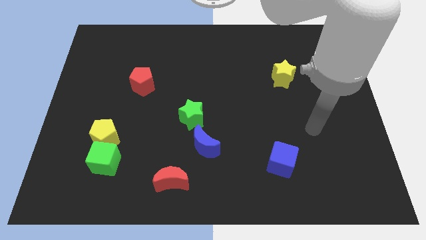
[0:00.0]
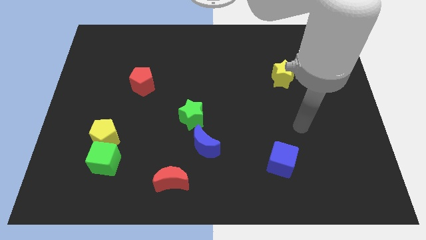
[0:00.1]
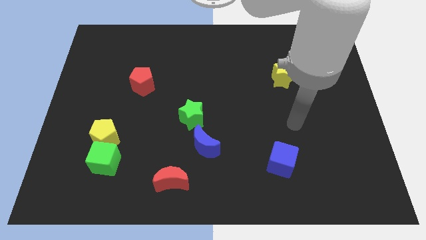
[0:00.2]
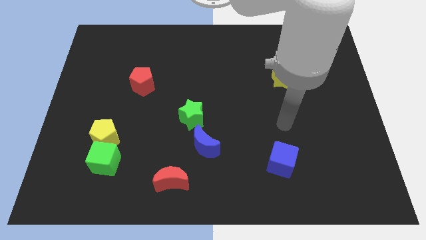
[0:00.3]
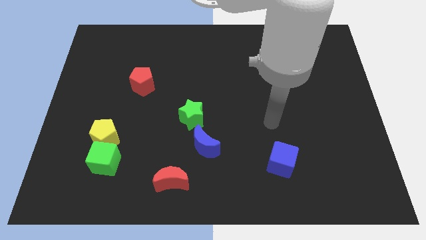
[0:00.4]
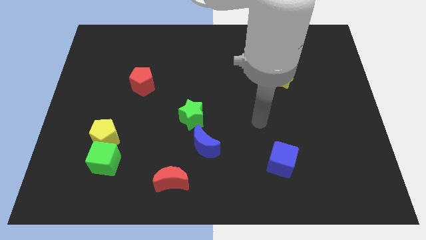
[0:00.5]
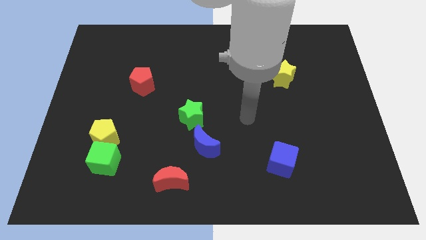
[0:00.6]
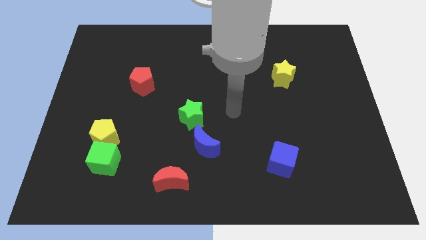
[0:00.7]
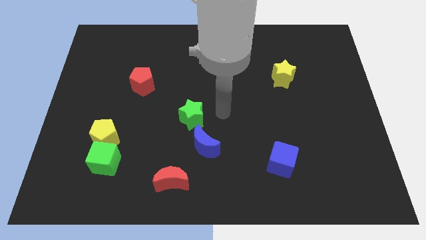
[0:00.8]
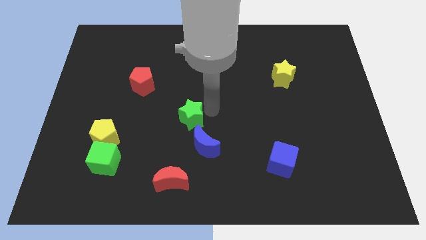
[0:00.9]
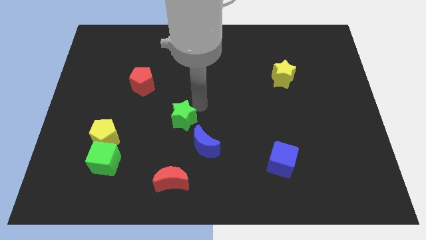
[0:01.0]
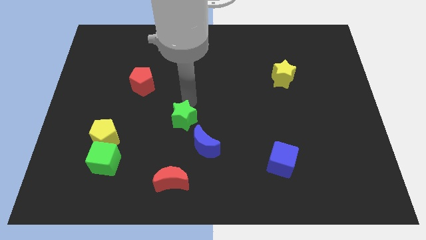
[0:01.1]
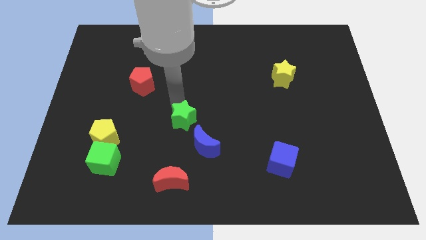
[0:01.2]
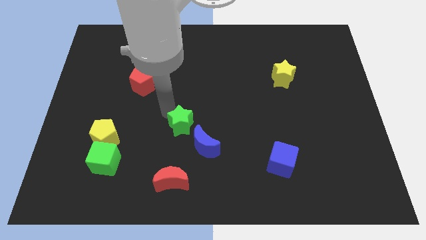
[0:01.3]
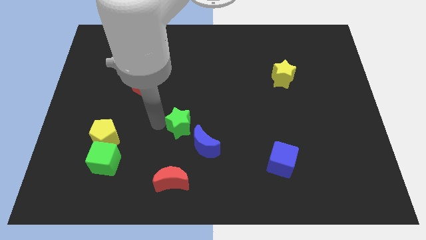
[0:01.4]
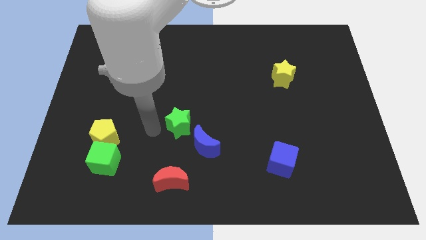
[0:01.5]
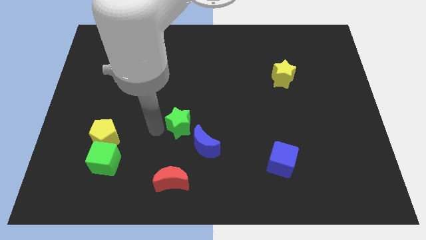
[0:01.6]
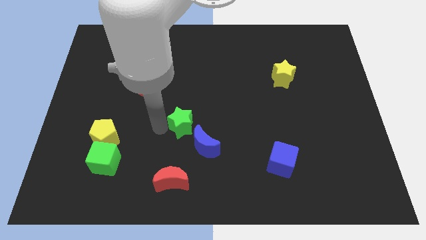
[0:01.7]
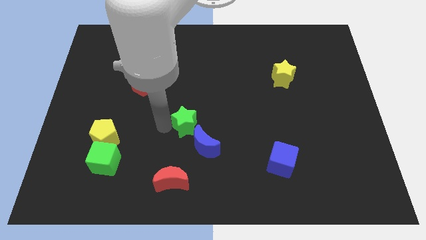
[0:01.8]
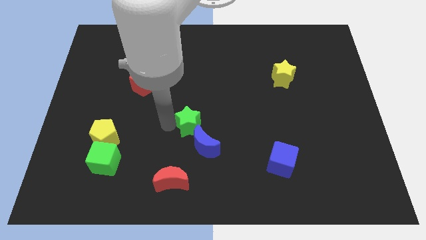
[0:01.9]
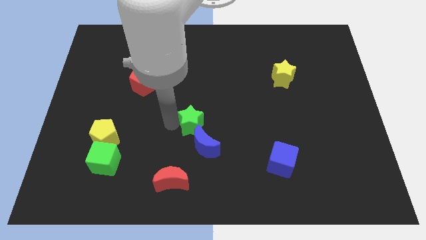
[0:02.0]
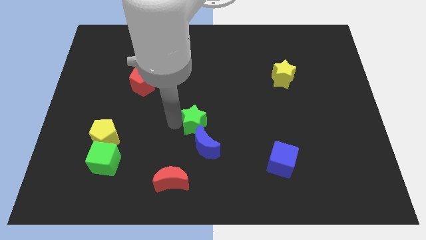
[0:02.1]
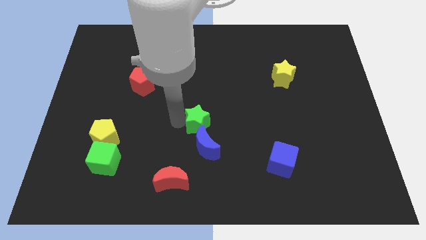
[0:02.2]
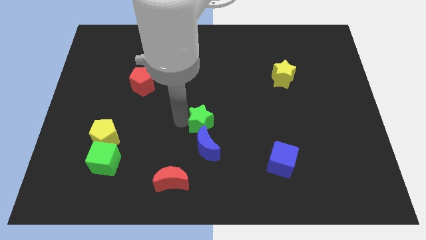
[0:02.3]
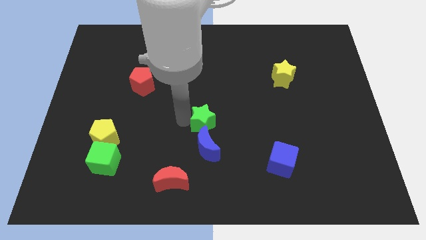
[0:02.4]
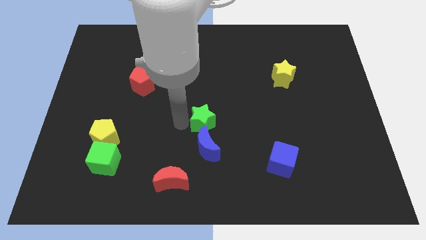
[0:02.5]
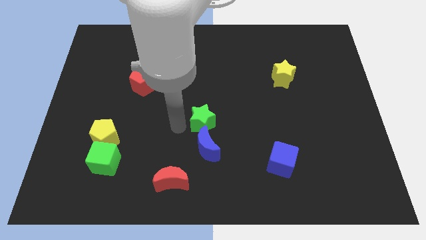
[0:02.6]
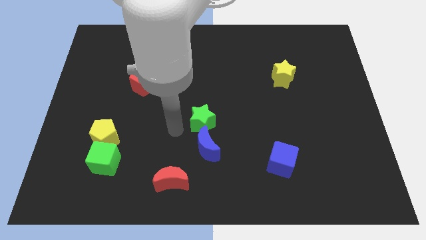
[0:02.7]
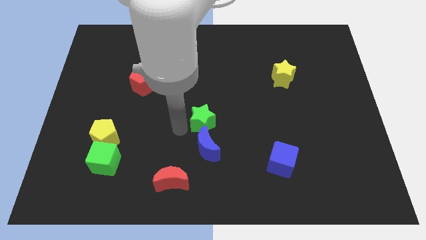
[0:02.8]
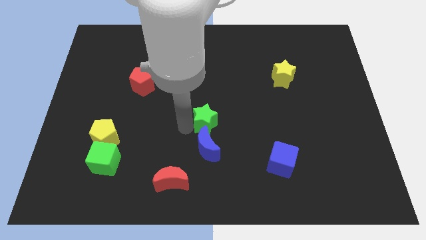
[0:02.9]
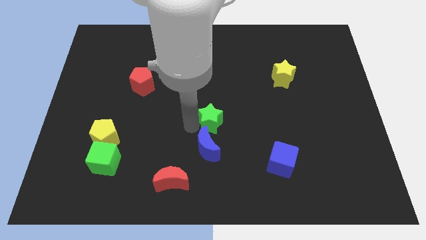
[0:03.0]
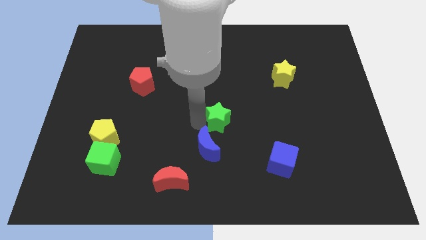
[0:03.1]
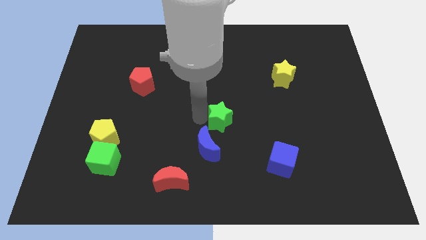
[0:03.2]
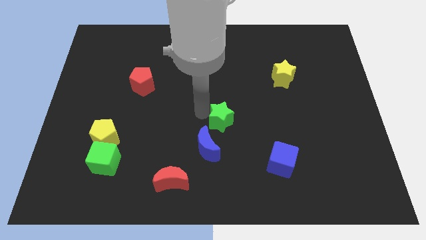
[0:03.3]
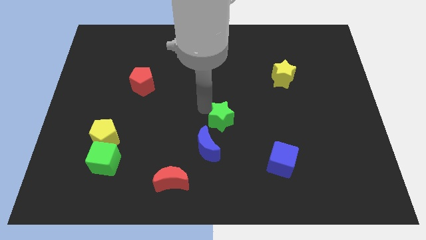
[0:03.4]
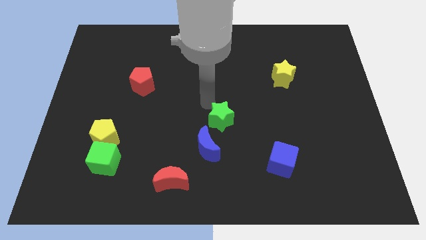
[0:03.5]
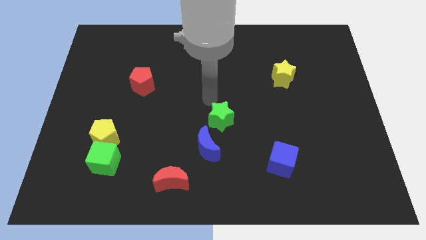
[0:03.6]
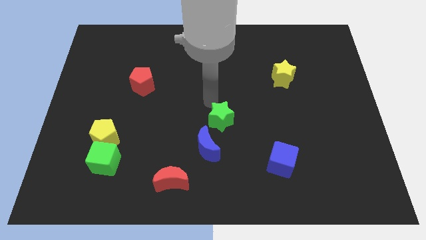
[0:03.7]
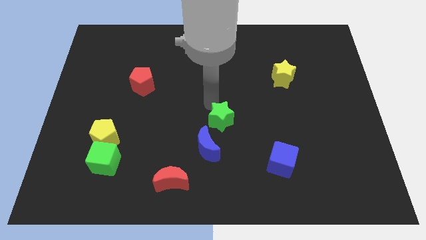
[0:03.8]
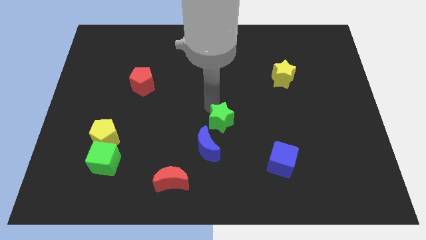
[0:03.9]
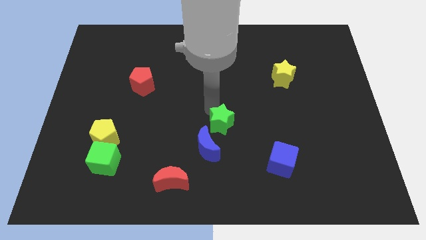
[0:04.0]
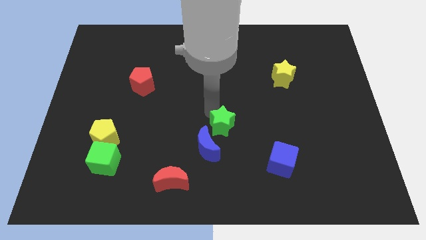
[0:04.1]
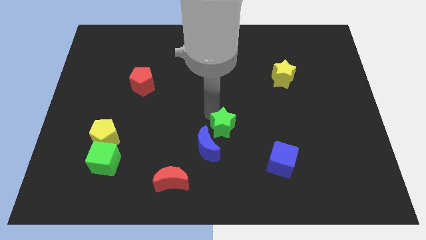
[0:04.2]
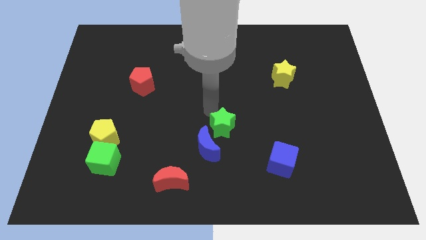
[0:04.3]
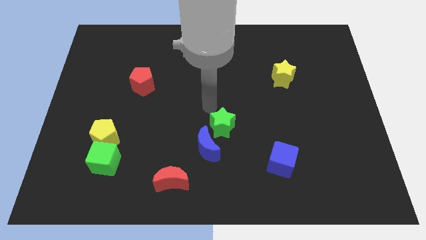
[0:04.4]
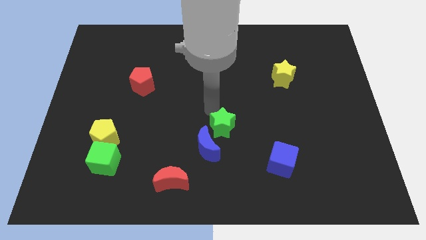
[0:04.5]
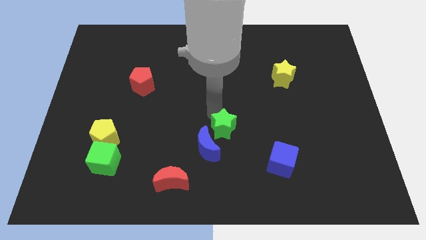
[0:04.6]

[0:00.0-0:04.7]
push the green star diagonally downwards and right slightly

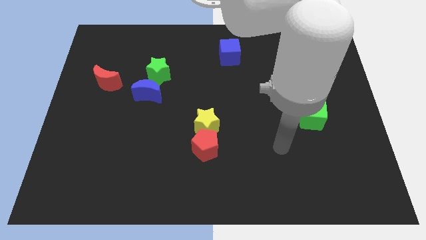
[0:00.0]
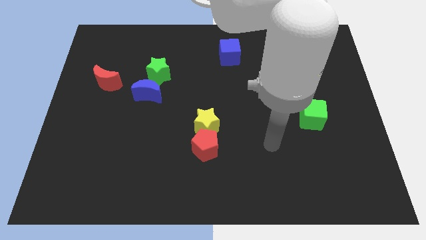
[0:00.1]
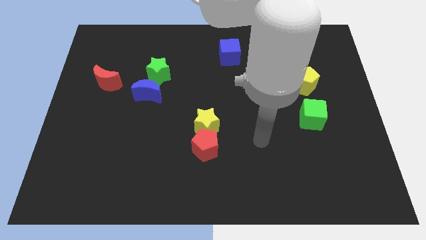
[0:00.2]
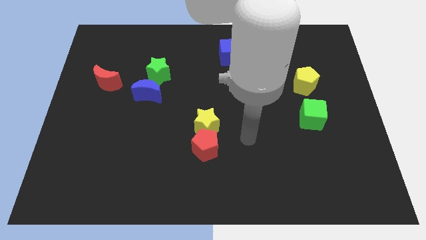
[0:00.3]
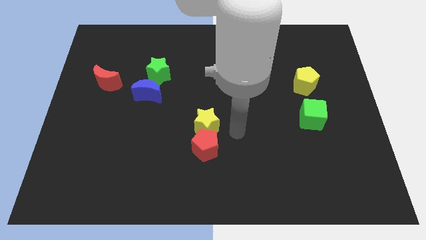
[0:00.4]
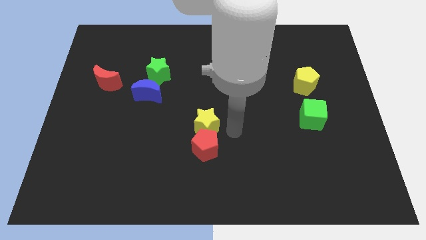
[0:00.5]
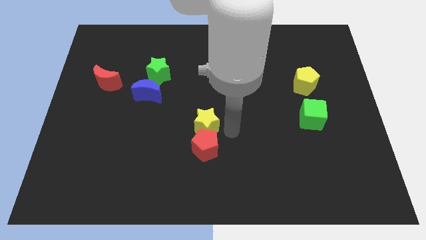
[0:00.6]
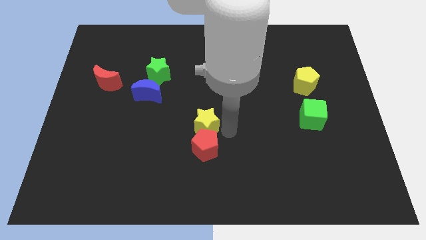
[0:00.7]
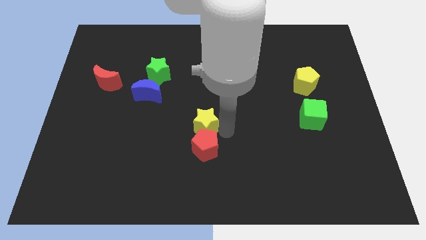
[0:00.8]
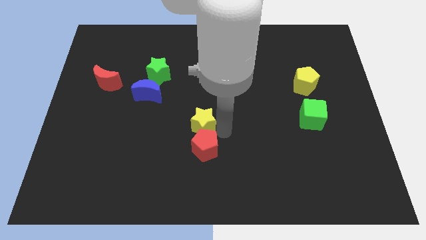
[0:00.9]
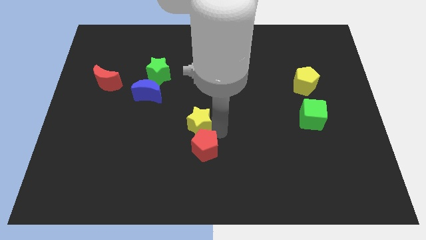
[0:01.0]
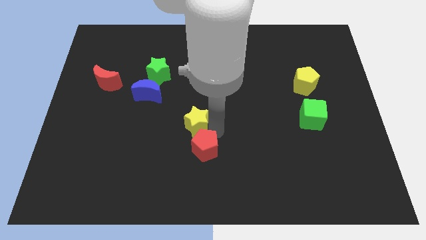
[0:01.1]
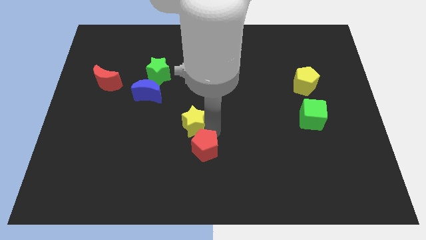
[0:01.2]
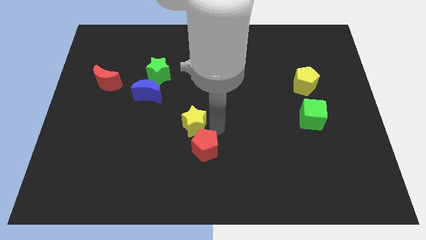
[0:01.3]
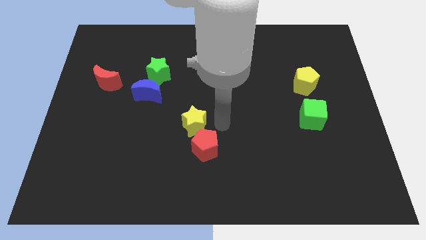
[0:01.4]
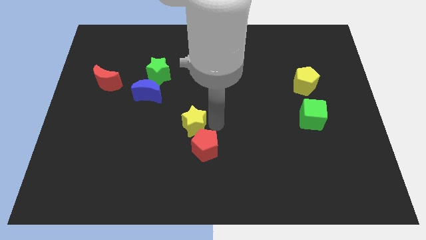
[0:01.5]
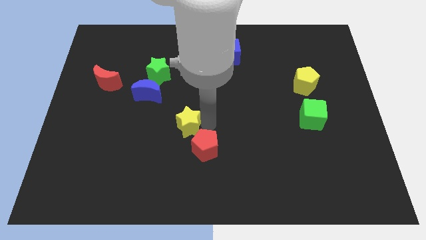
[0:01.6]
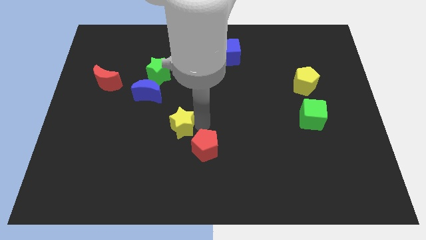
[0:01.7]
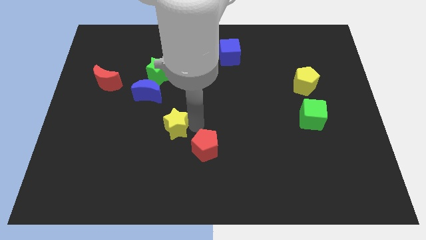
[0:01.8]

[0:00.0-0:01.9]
push the yellow star a little bit left

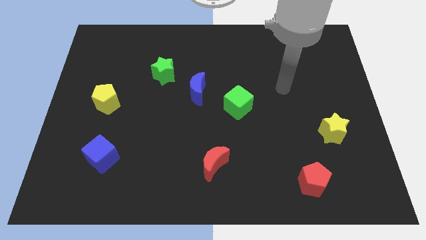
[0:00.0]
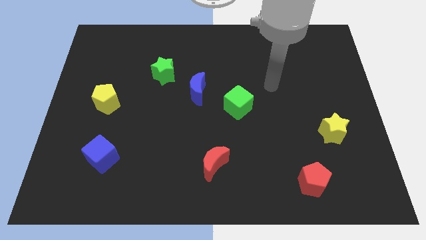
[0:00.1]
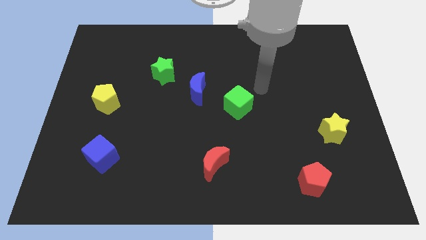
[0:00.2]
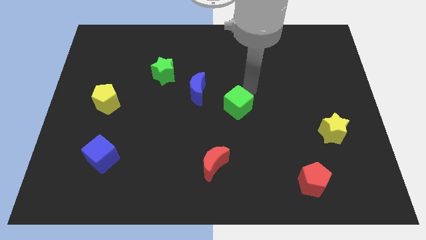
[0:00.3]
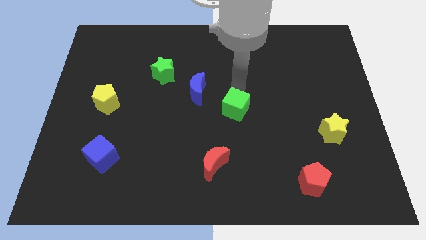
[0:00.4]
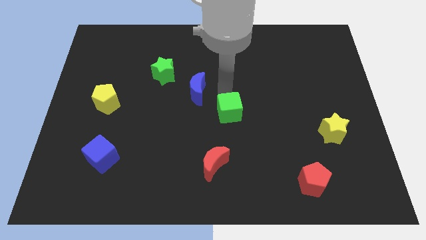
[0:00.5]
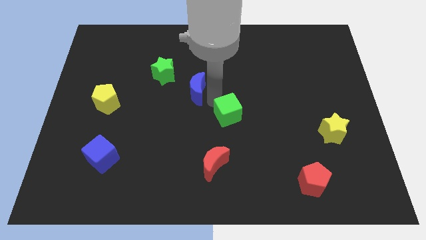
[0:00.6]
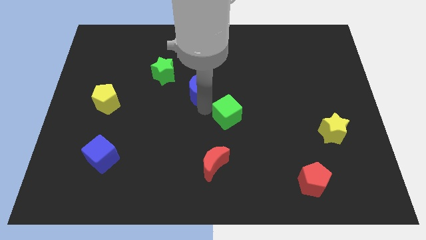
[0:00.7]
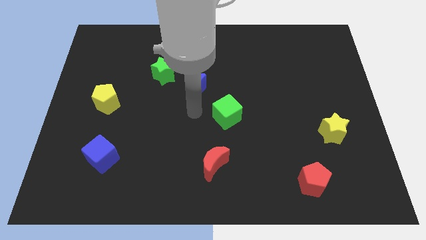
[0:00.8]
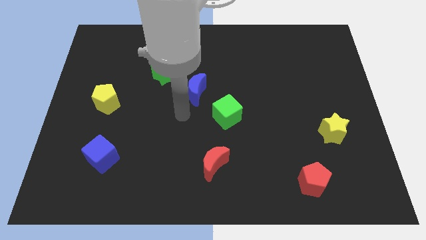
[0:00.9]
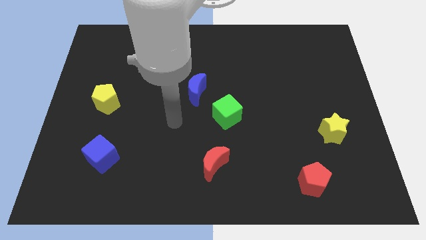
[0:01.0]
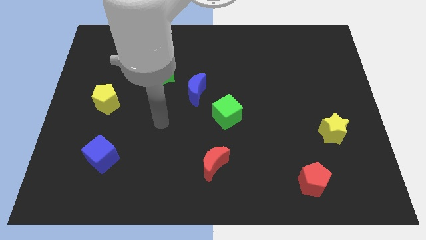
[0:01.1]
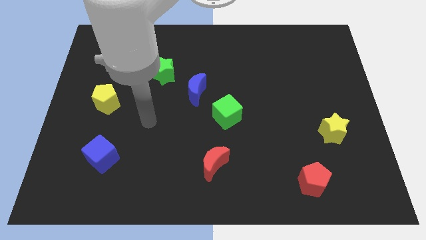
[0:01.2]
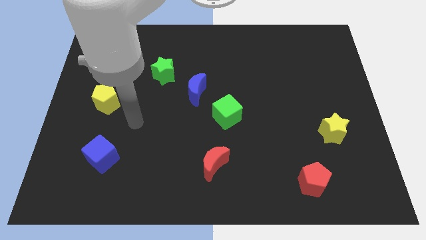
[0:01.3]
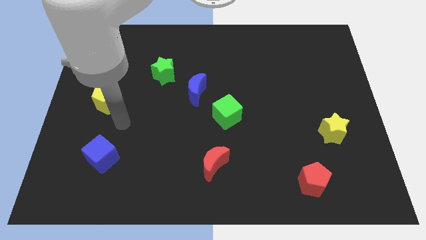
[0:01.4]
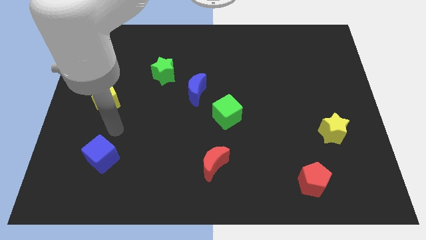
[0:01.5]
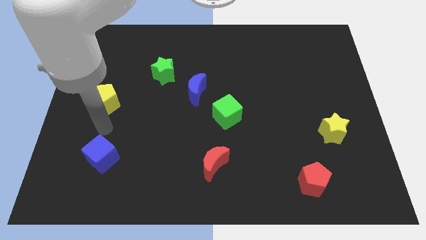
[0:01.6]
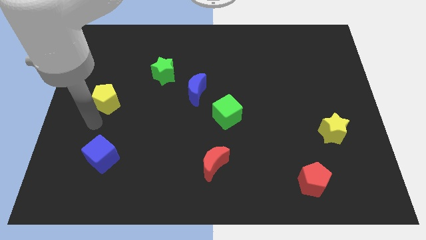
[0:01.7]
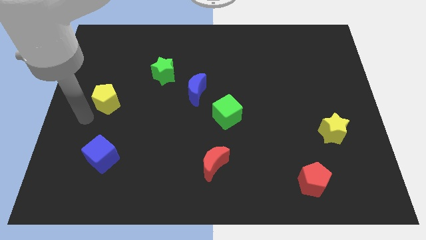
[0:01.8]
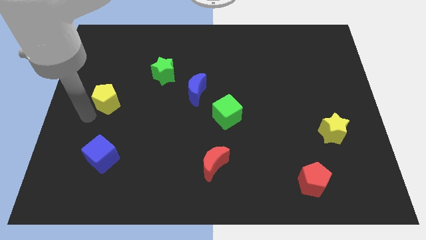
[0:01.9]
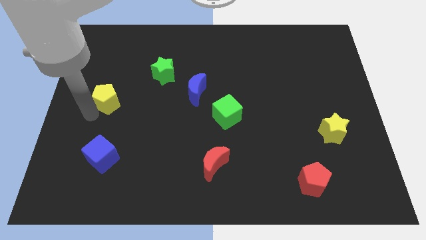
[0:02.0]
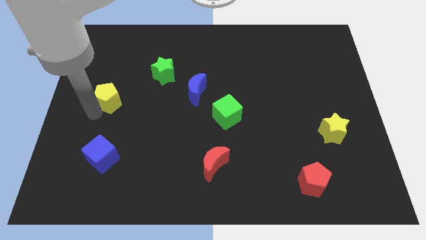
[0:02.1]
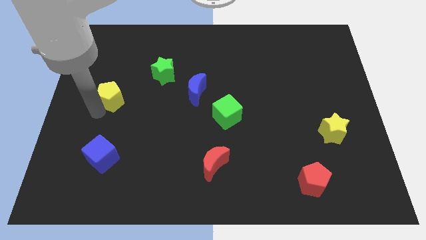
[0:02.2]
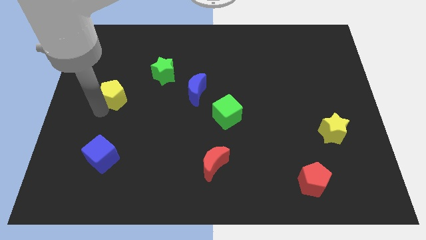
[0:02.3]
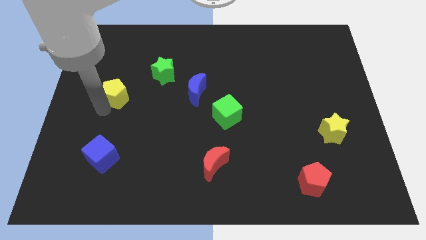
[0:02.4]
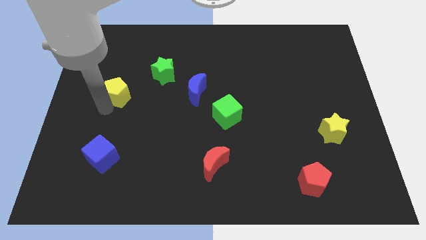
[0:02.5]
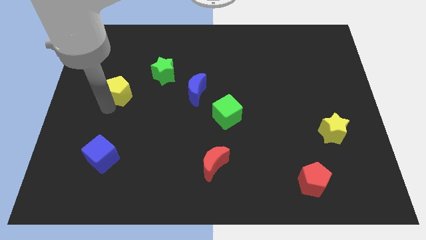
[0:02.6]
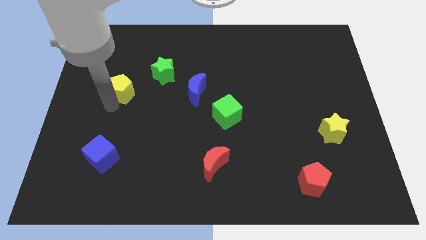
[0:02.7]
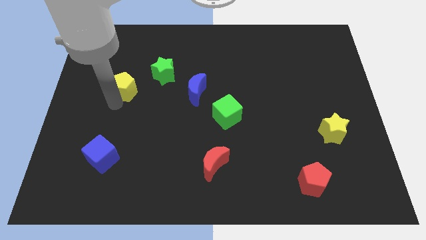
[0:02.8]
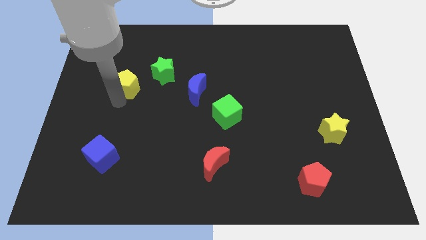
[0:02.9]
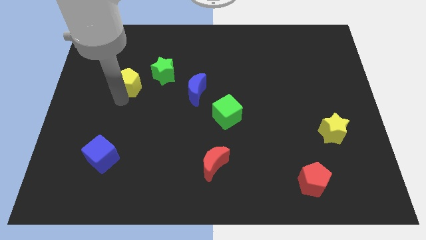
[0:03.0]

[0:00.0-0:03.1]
move the yellow pentagon up and then right somewhat
